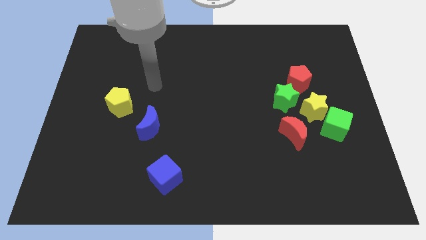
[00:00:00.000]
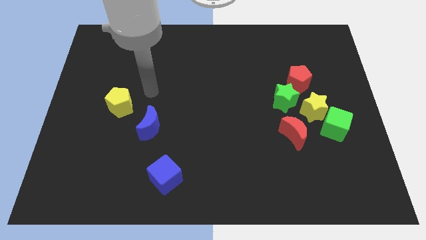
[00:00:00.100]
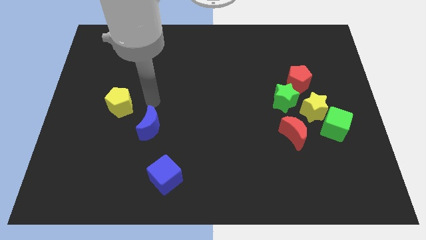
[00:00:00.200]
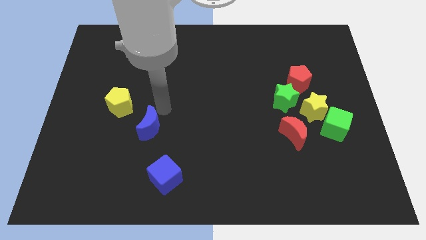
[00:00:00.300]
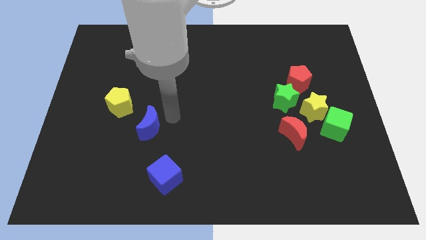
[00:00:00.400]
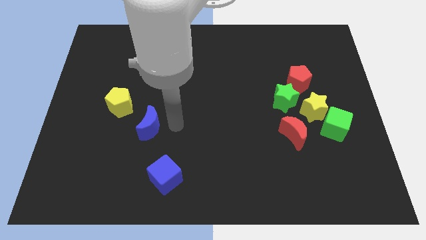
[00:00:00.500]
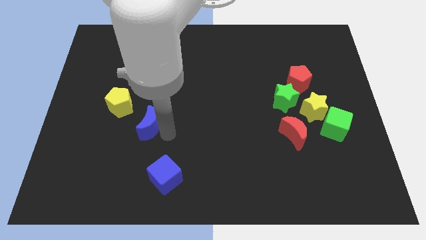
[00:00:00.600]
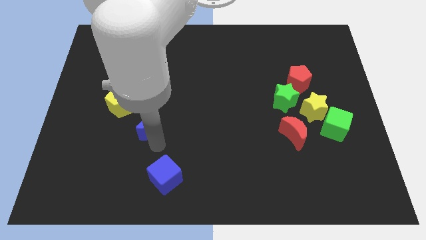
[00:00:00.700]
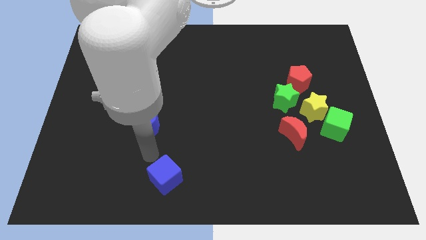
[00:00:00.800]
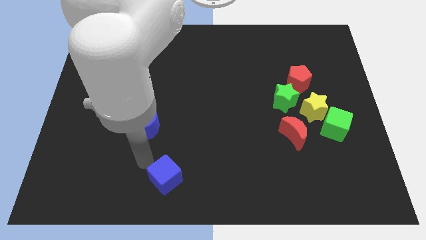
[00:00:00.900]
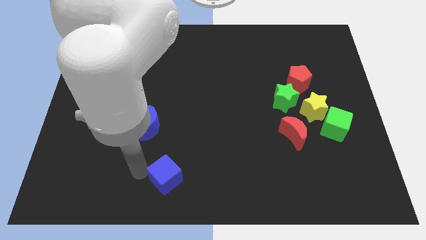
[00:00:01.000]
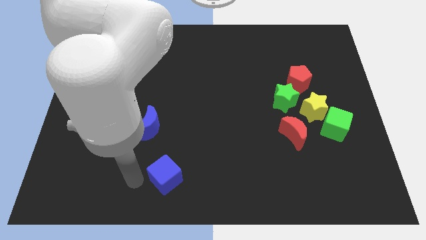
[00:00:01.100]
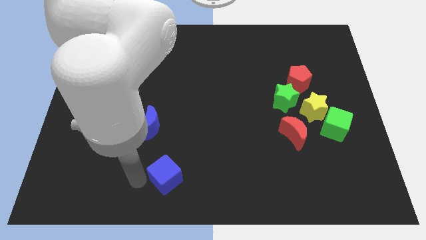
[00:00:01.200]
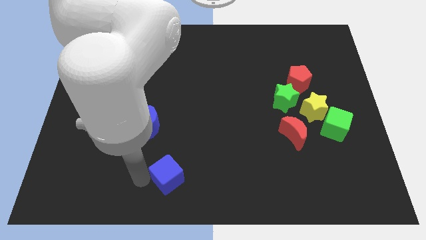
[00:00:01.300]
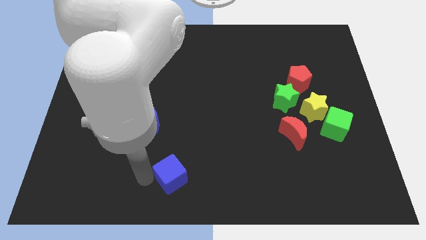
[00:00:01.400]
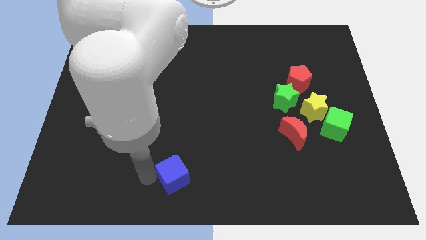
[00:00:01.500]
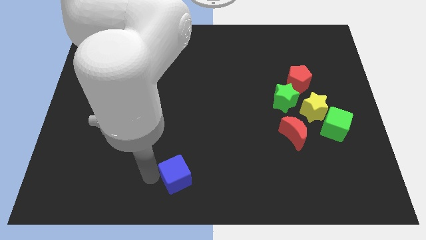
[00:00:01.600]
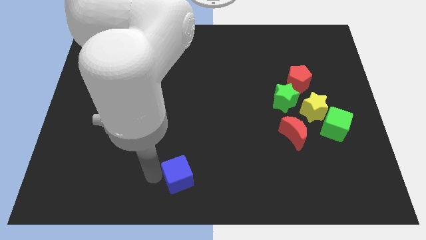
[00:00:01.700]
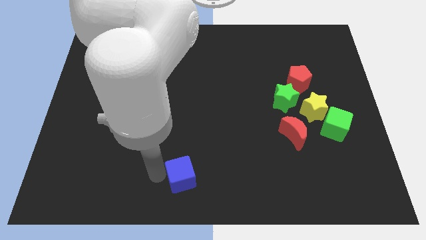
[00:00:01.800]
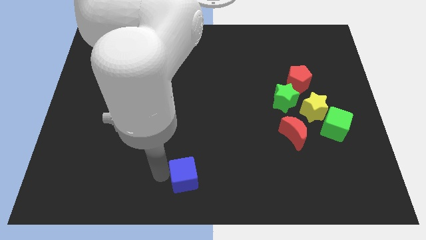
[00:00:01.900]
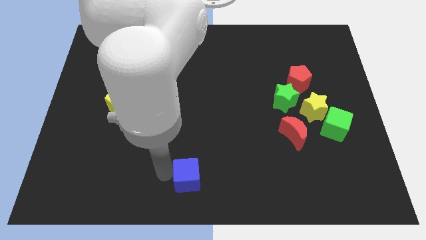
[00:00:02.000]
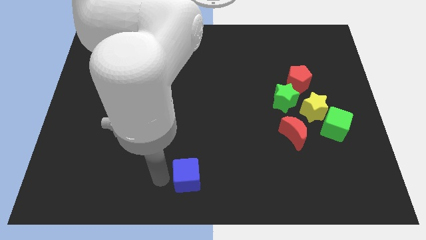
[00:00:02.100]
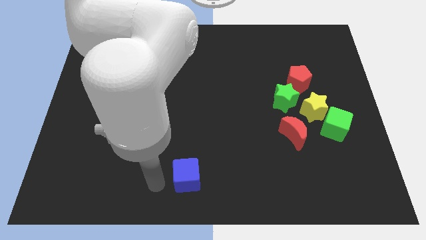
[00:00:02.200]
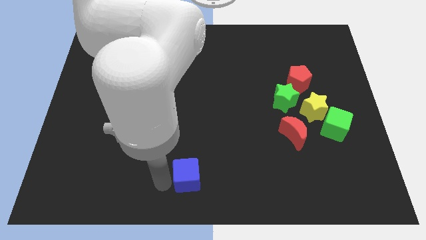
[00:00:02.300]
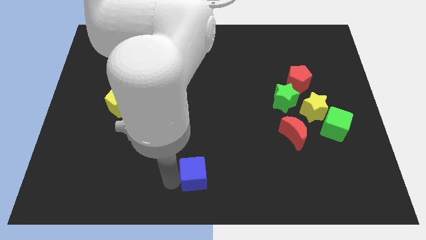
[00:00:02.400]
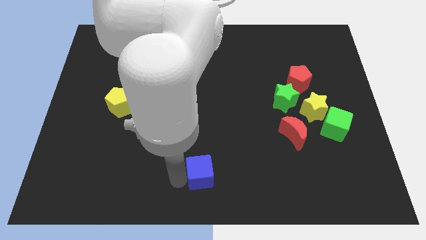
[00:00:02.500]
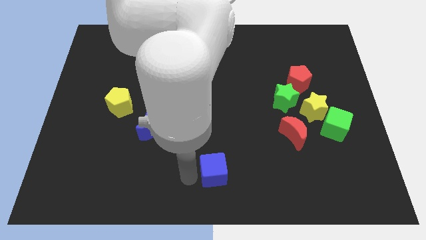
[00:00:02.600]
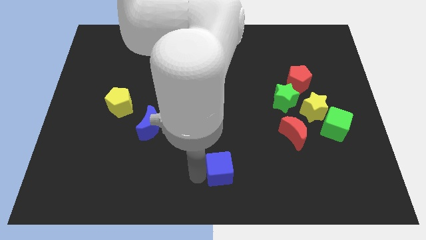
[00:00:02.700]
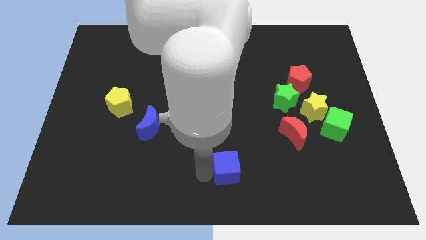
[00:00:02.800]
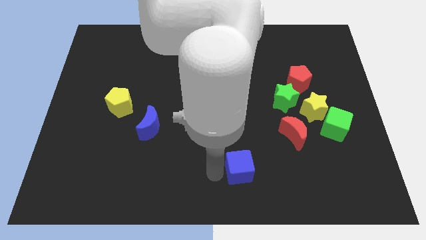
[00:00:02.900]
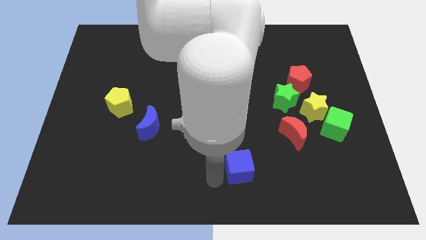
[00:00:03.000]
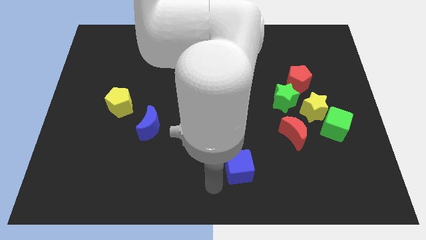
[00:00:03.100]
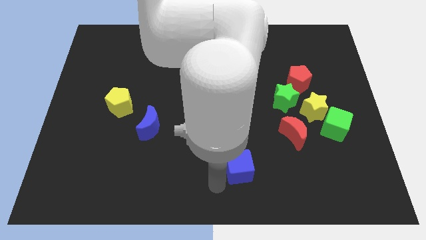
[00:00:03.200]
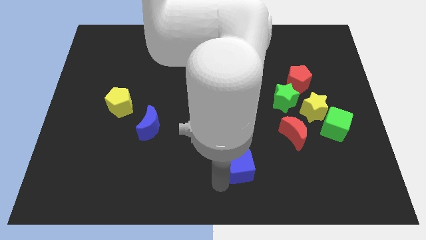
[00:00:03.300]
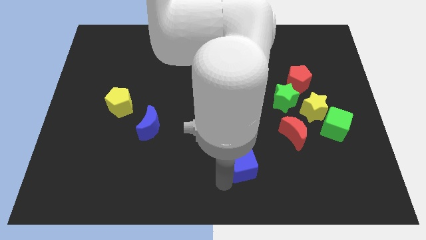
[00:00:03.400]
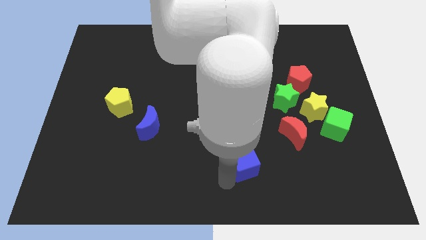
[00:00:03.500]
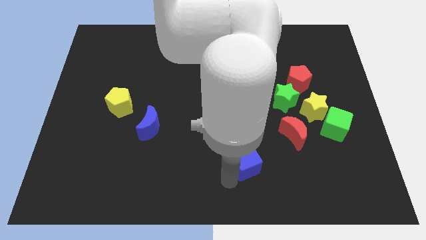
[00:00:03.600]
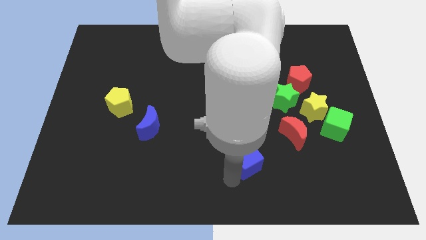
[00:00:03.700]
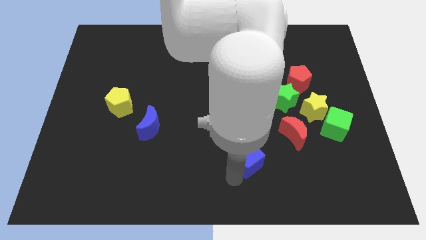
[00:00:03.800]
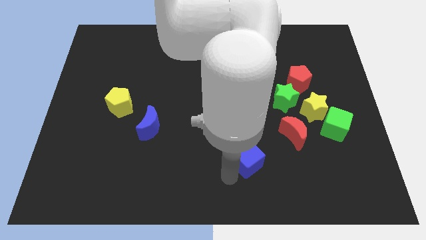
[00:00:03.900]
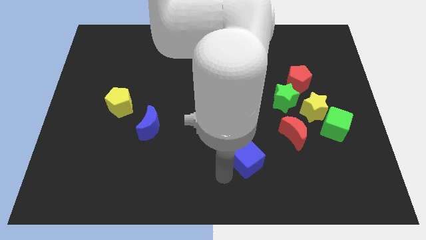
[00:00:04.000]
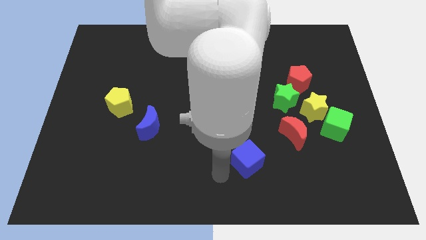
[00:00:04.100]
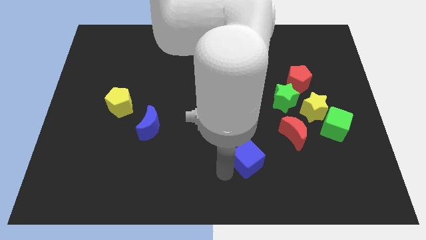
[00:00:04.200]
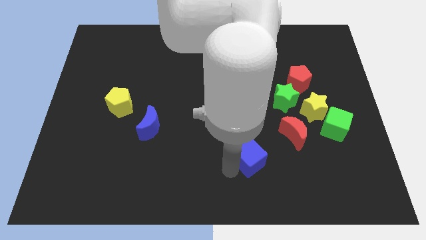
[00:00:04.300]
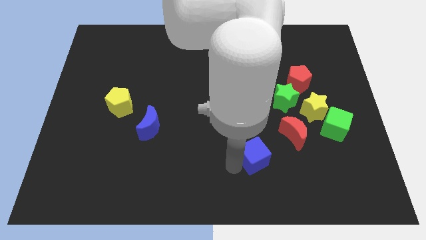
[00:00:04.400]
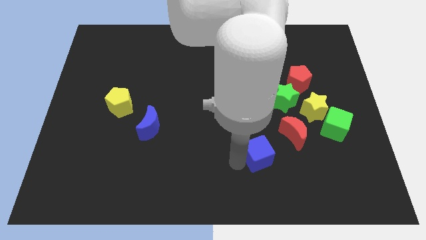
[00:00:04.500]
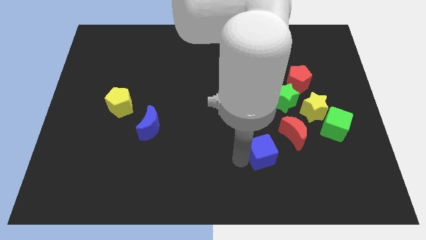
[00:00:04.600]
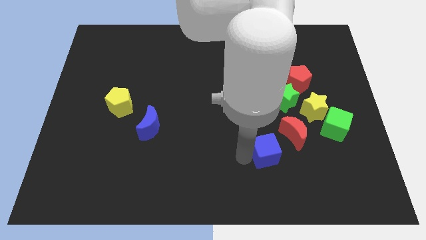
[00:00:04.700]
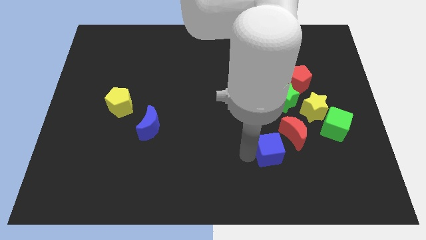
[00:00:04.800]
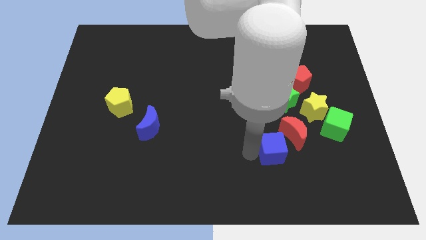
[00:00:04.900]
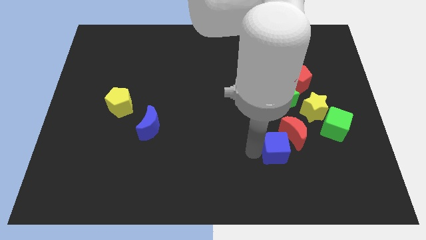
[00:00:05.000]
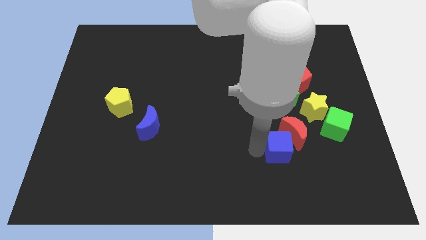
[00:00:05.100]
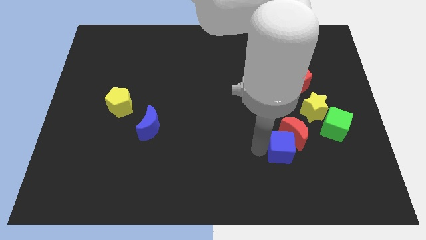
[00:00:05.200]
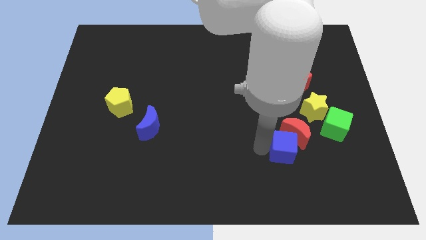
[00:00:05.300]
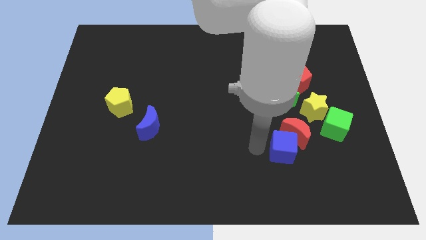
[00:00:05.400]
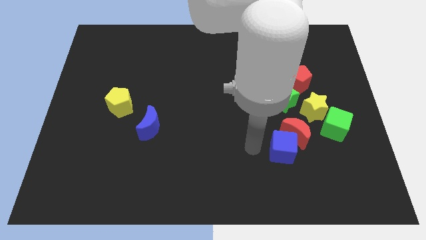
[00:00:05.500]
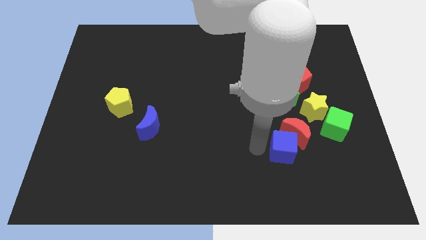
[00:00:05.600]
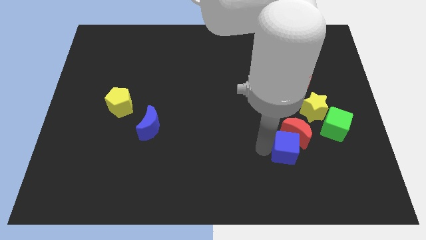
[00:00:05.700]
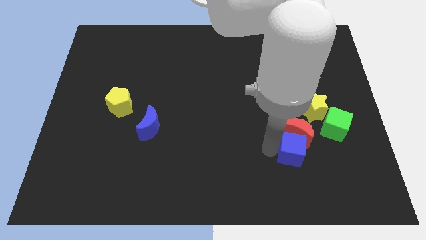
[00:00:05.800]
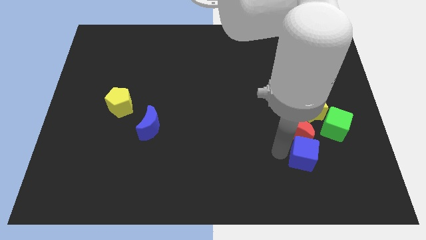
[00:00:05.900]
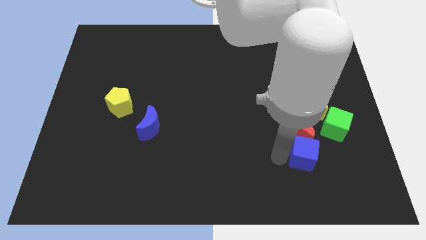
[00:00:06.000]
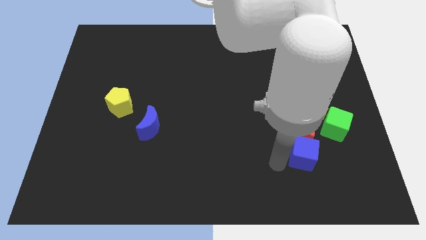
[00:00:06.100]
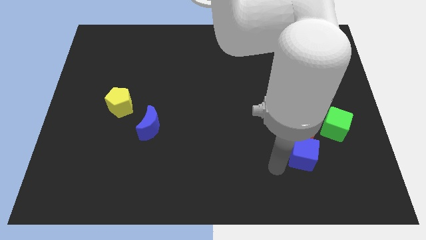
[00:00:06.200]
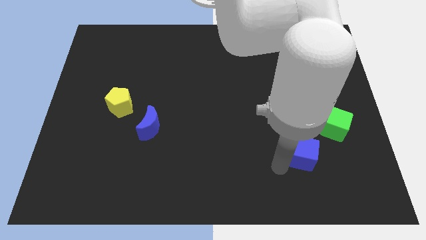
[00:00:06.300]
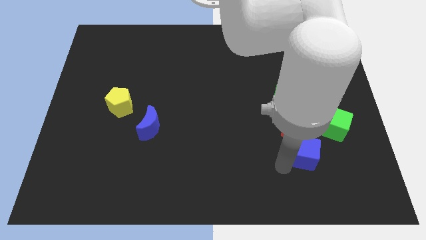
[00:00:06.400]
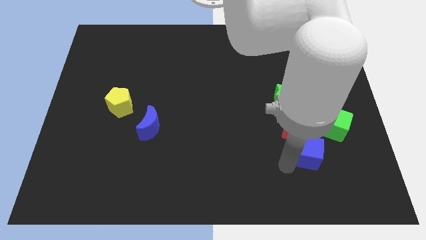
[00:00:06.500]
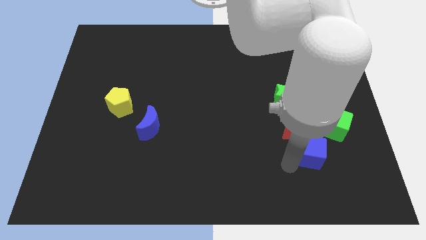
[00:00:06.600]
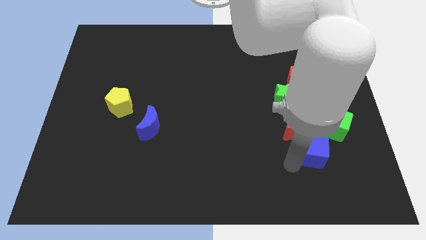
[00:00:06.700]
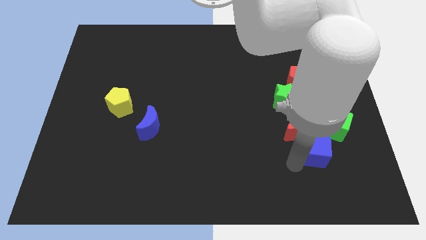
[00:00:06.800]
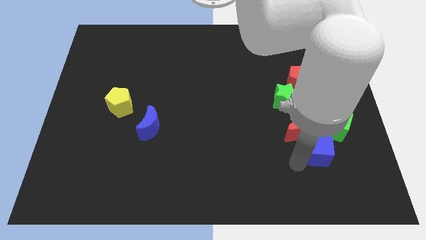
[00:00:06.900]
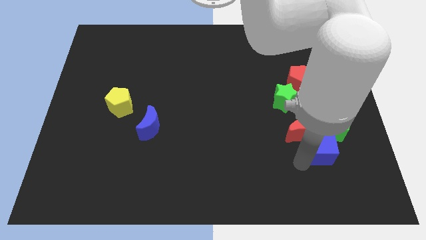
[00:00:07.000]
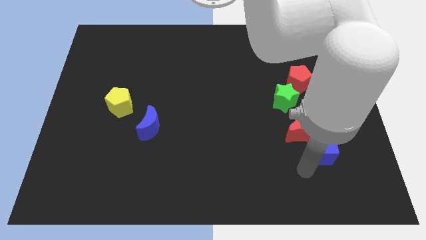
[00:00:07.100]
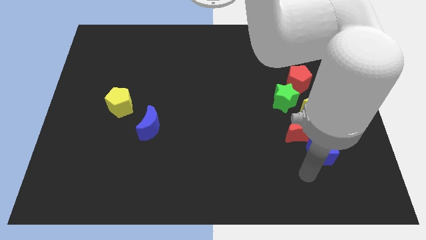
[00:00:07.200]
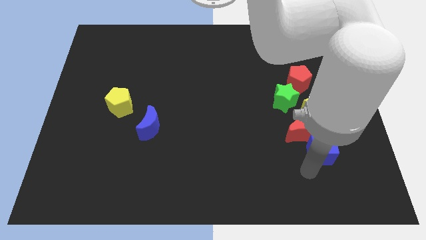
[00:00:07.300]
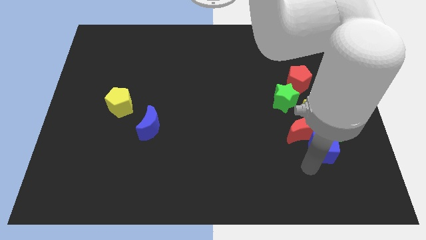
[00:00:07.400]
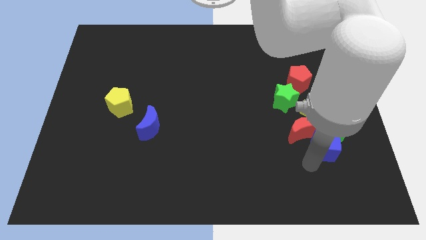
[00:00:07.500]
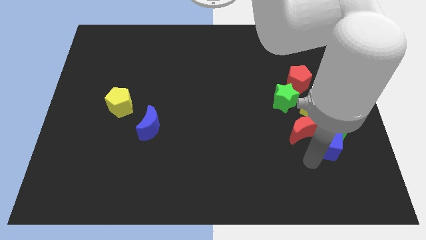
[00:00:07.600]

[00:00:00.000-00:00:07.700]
move the blue cube close to the green cube
